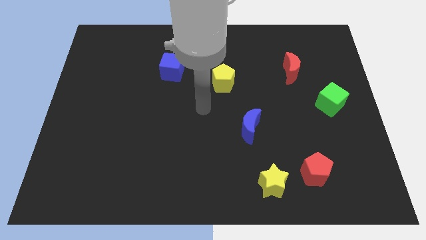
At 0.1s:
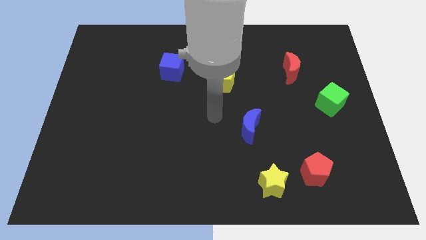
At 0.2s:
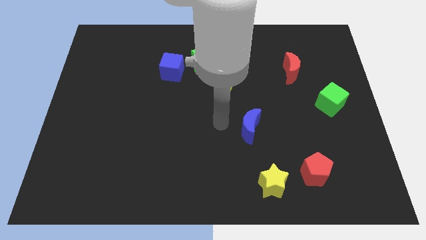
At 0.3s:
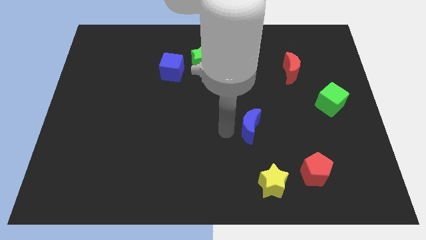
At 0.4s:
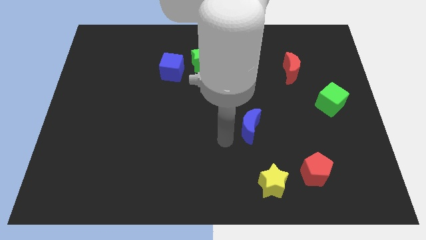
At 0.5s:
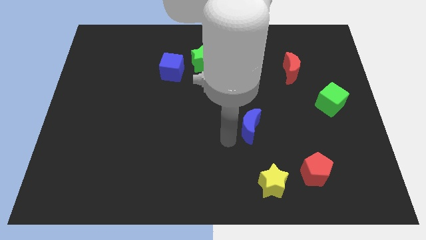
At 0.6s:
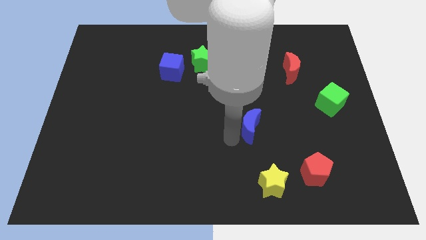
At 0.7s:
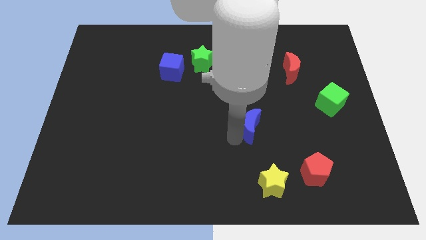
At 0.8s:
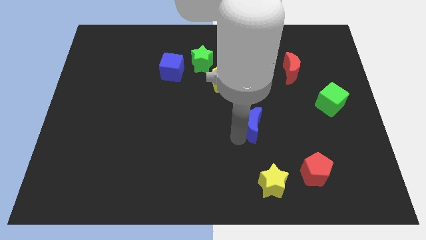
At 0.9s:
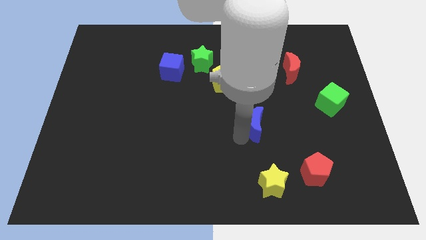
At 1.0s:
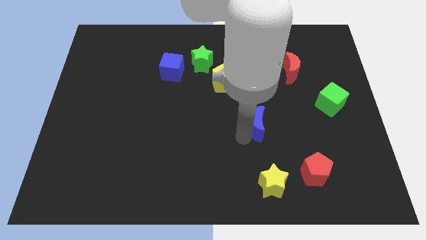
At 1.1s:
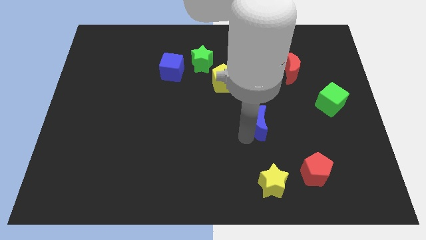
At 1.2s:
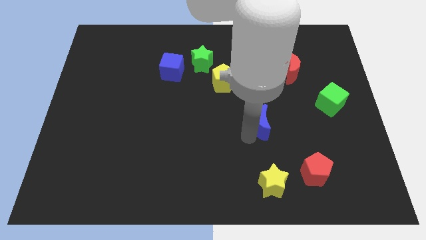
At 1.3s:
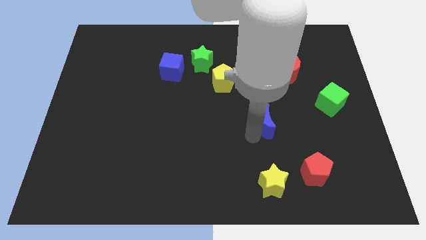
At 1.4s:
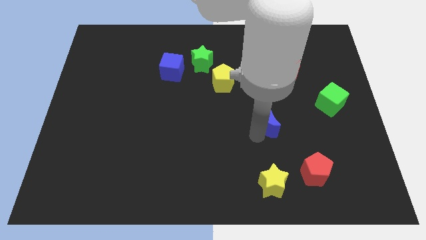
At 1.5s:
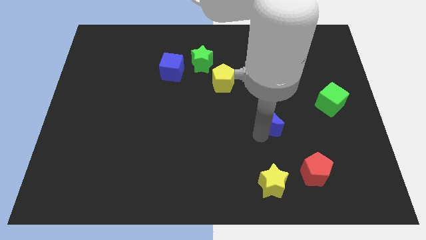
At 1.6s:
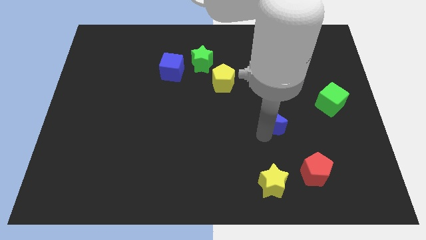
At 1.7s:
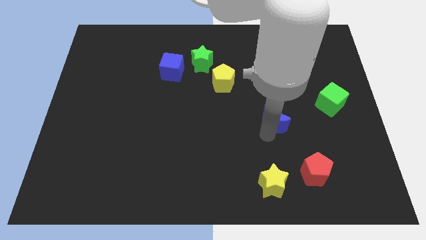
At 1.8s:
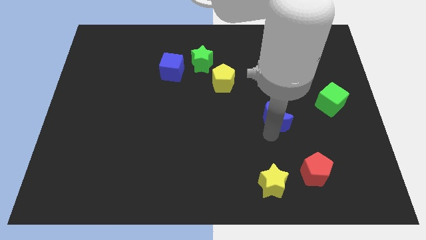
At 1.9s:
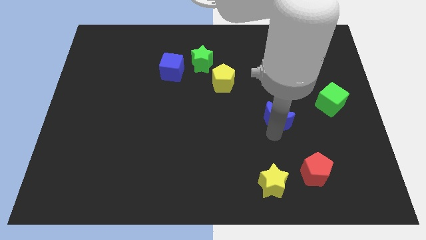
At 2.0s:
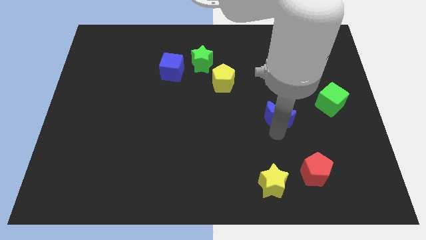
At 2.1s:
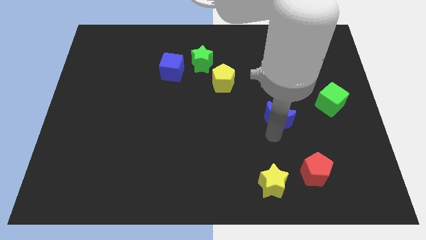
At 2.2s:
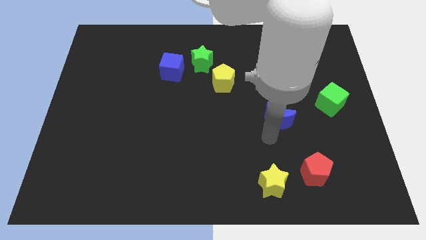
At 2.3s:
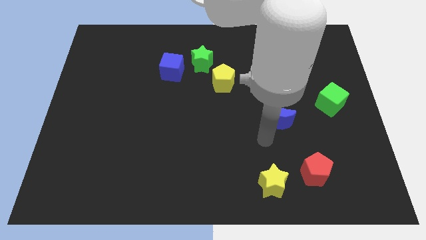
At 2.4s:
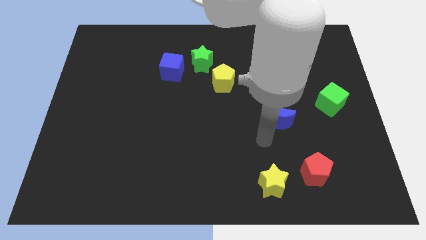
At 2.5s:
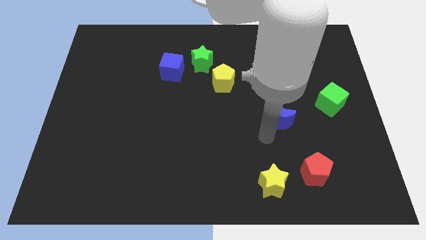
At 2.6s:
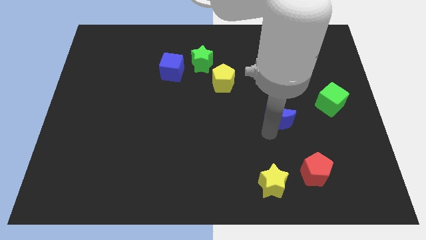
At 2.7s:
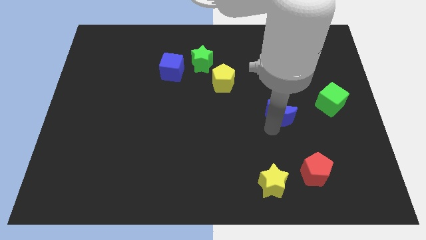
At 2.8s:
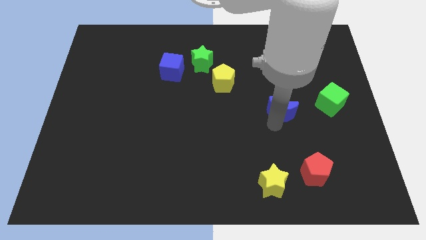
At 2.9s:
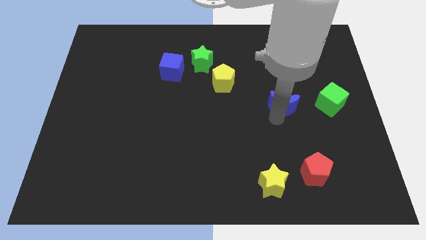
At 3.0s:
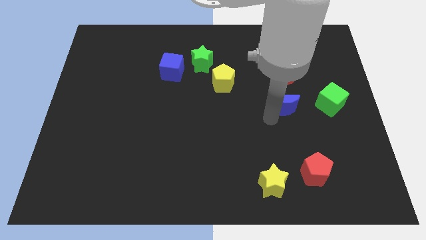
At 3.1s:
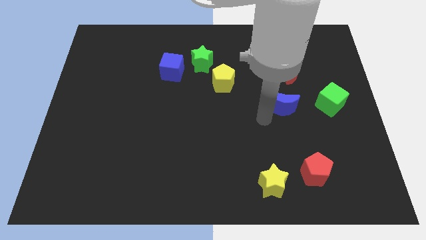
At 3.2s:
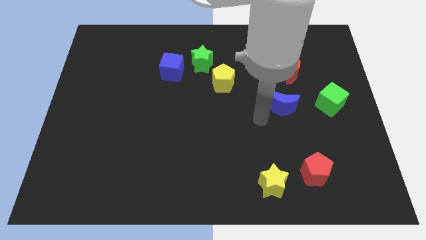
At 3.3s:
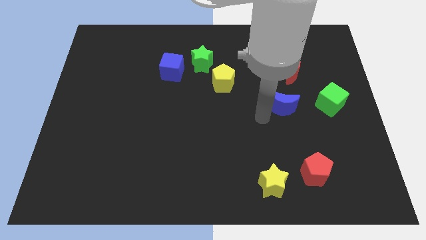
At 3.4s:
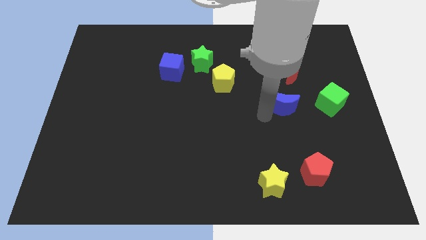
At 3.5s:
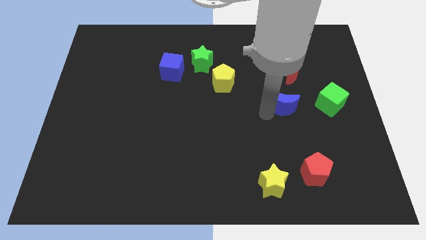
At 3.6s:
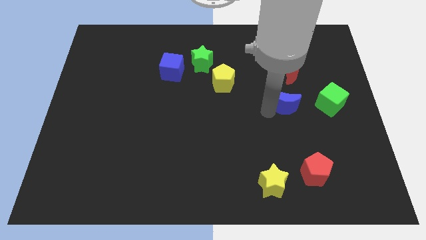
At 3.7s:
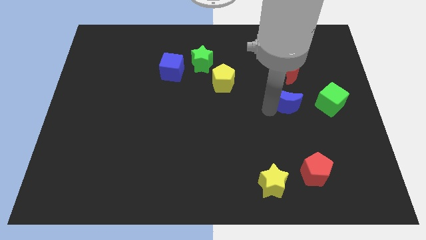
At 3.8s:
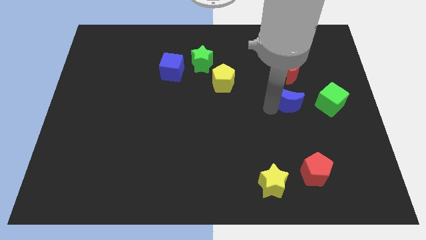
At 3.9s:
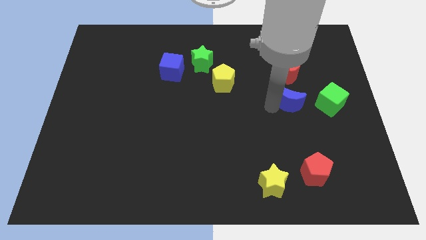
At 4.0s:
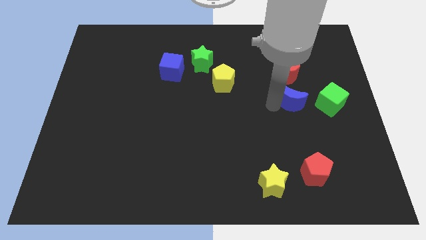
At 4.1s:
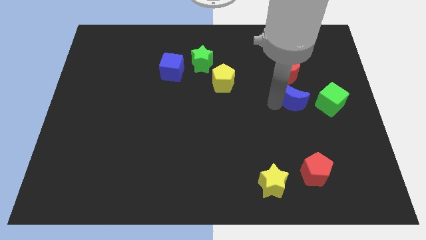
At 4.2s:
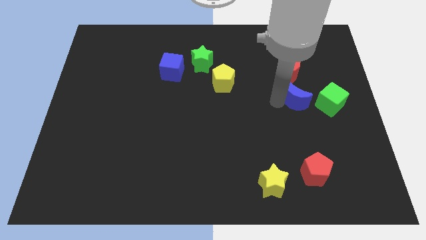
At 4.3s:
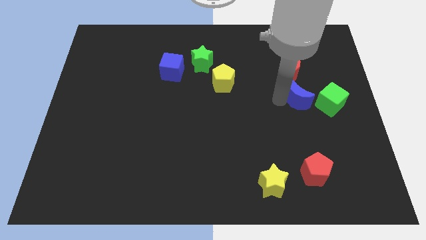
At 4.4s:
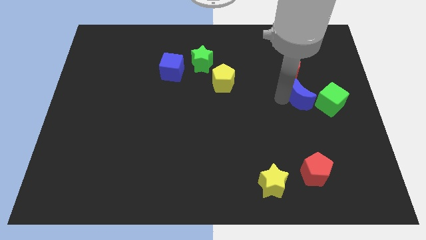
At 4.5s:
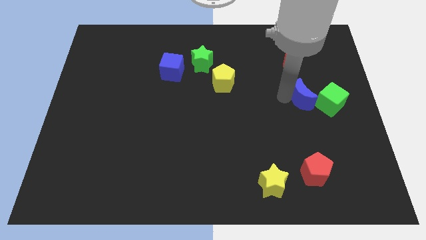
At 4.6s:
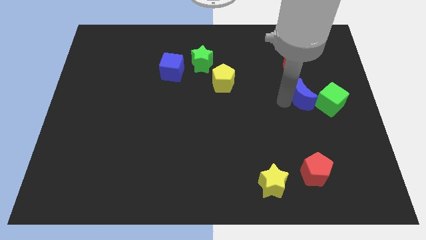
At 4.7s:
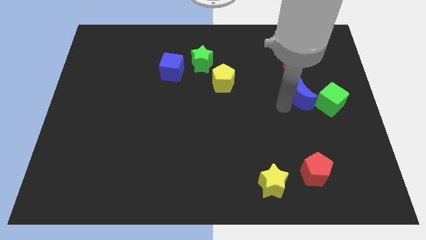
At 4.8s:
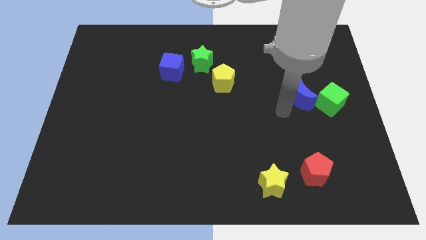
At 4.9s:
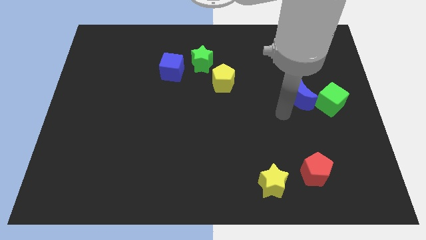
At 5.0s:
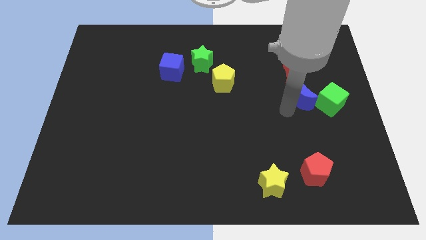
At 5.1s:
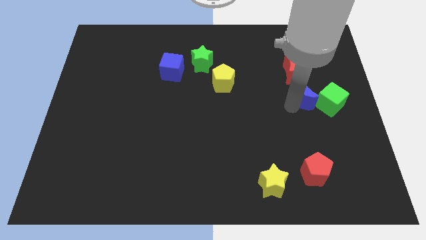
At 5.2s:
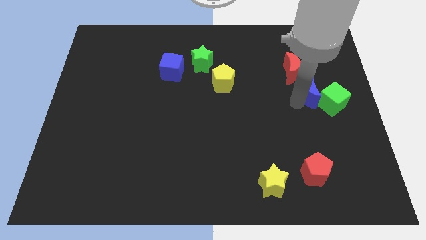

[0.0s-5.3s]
push the blue moon diagonally down and to the right of the red moon

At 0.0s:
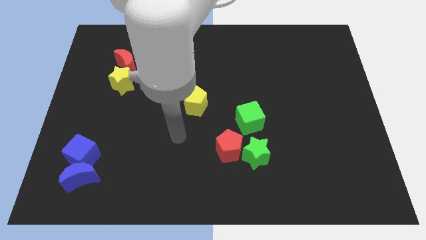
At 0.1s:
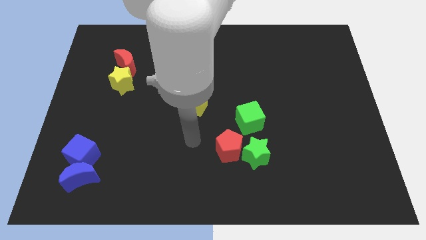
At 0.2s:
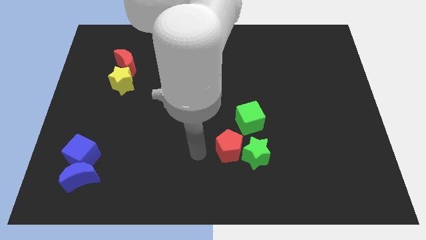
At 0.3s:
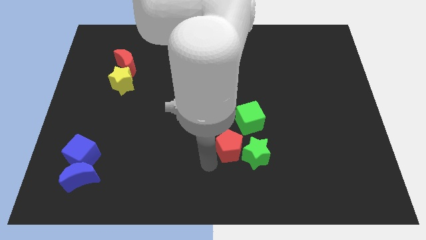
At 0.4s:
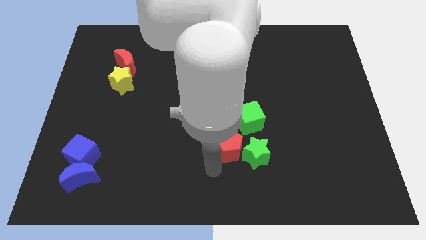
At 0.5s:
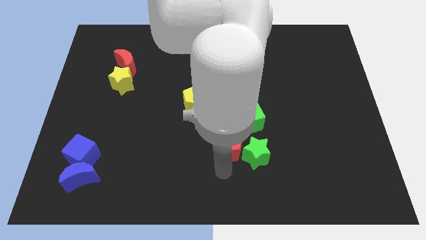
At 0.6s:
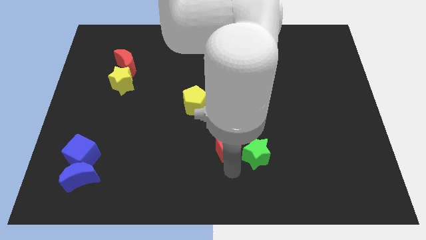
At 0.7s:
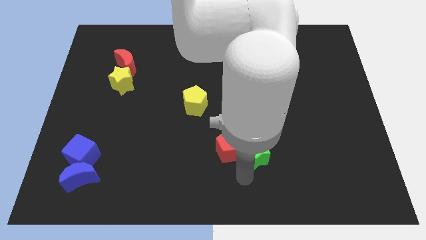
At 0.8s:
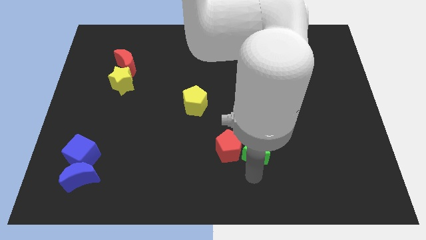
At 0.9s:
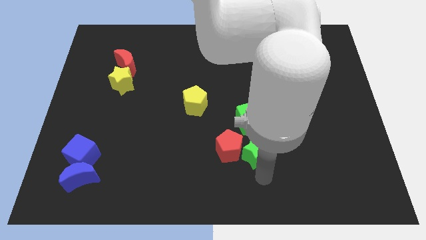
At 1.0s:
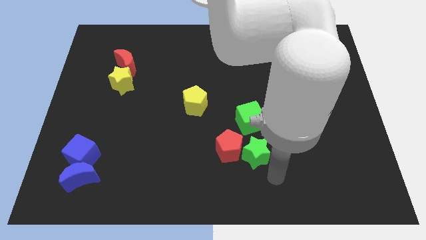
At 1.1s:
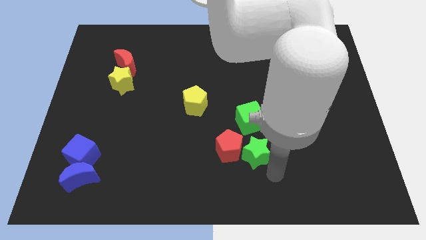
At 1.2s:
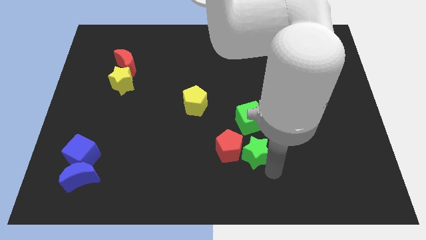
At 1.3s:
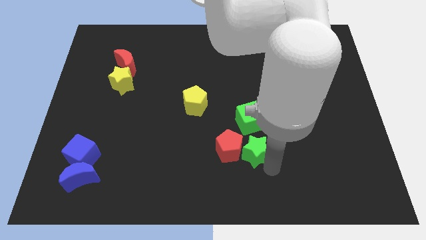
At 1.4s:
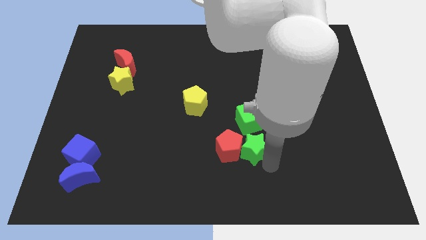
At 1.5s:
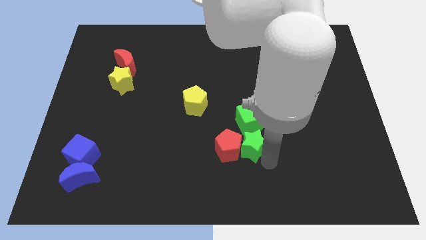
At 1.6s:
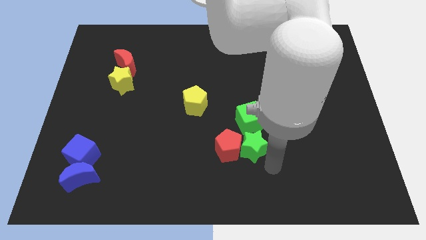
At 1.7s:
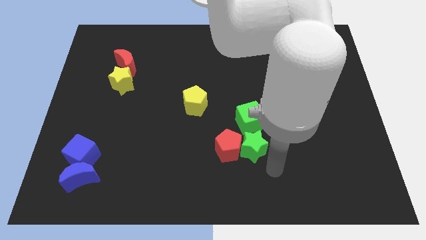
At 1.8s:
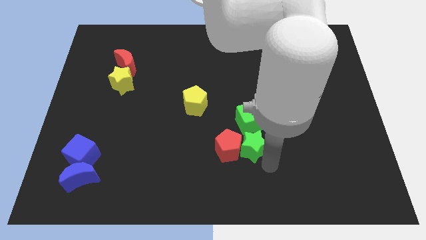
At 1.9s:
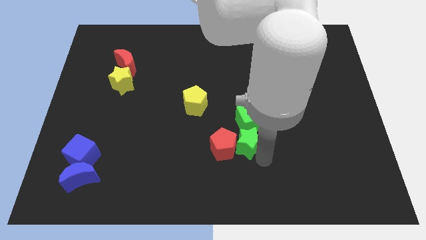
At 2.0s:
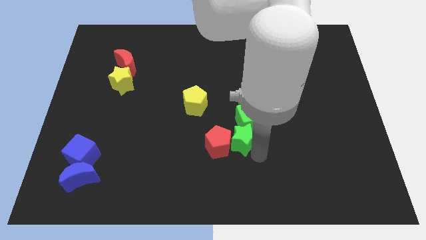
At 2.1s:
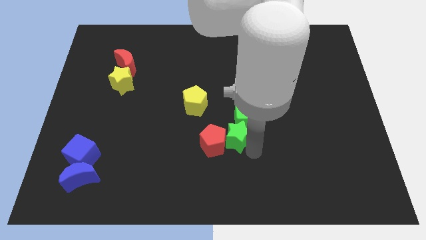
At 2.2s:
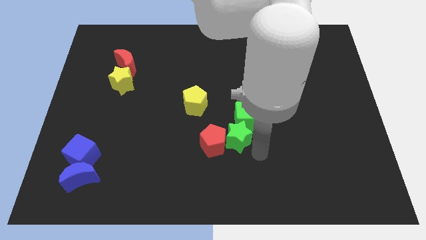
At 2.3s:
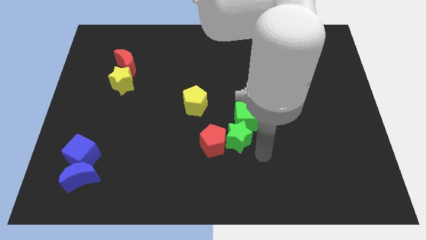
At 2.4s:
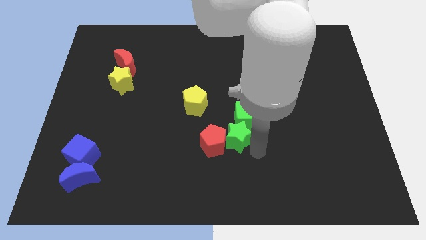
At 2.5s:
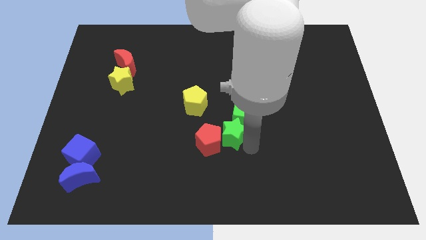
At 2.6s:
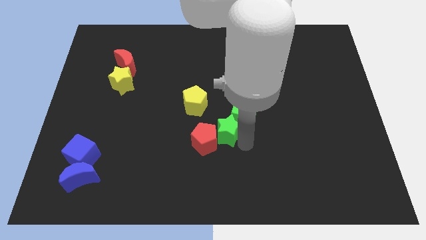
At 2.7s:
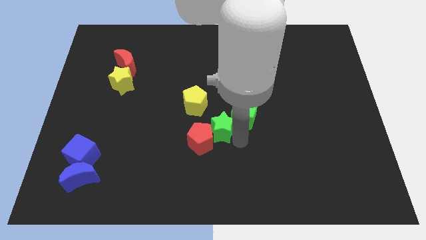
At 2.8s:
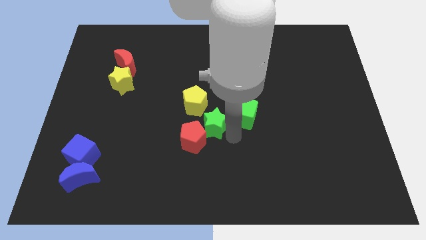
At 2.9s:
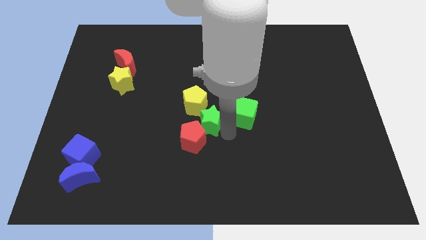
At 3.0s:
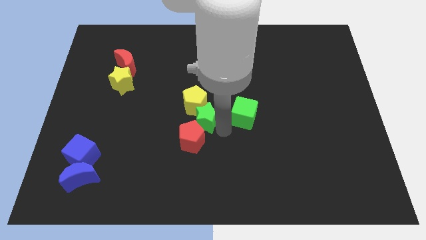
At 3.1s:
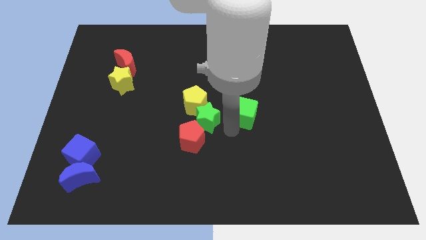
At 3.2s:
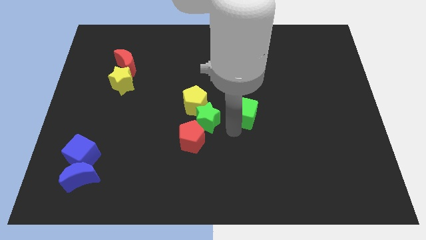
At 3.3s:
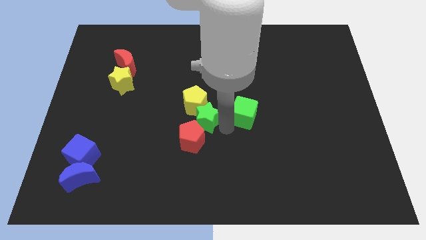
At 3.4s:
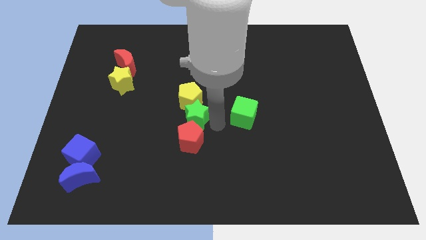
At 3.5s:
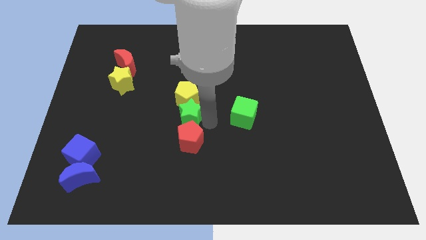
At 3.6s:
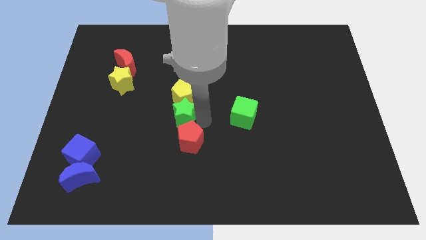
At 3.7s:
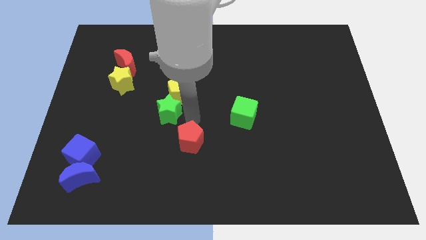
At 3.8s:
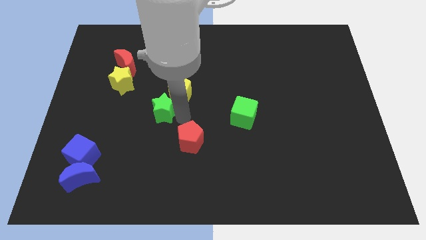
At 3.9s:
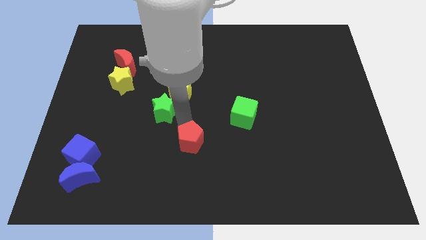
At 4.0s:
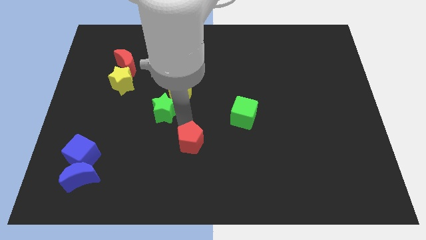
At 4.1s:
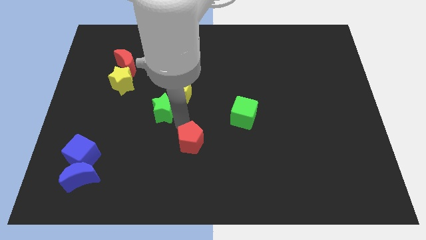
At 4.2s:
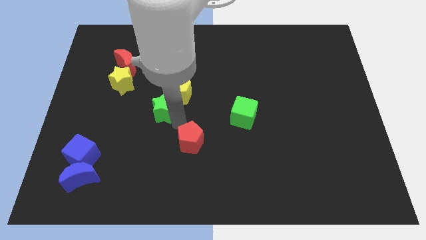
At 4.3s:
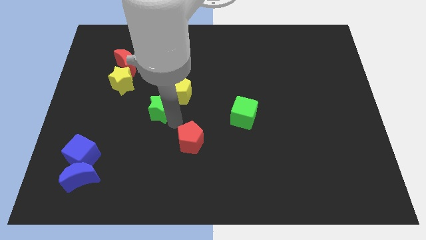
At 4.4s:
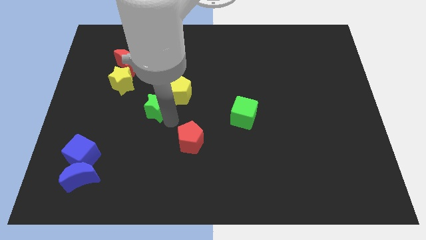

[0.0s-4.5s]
put the green star to the left side of the yellow pentagon
